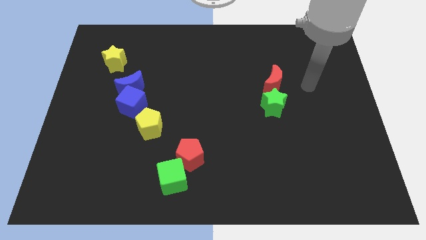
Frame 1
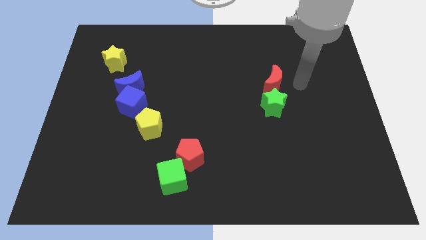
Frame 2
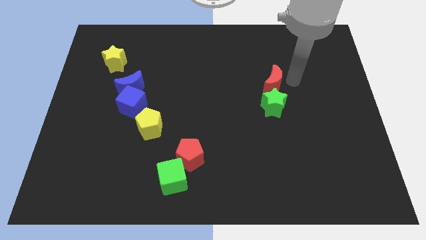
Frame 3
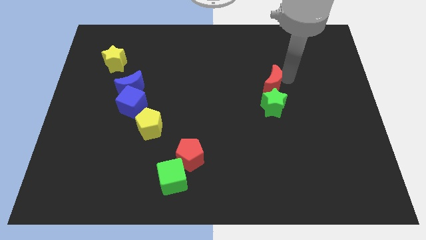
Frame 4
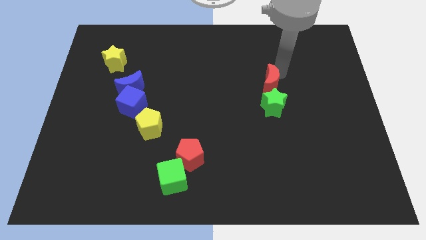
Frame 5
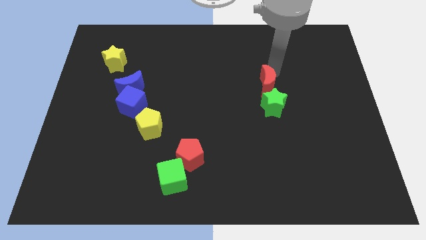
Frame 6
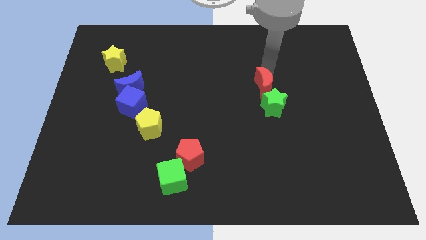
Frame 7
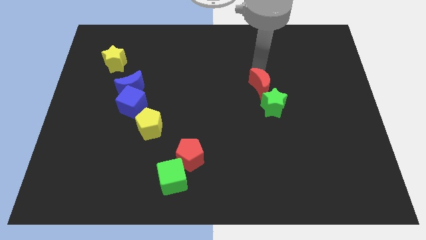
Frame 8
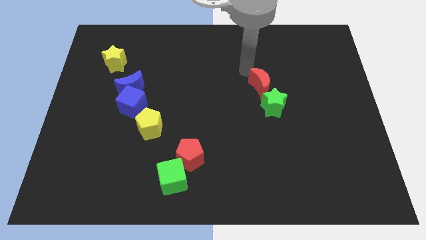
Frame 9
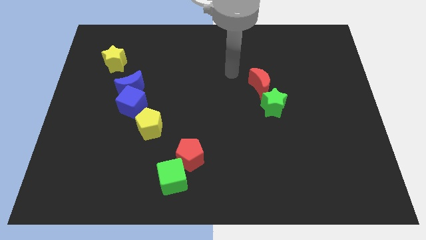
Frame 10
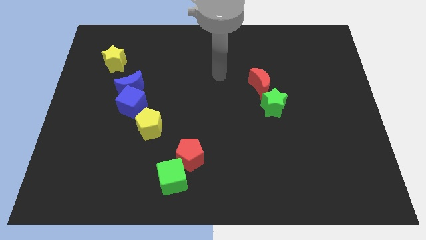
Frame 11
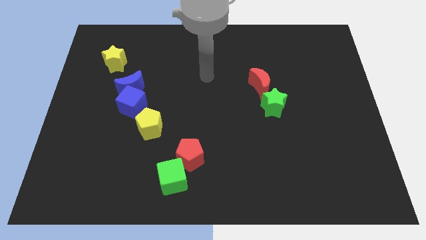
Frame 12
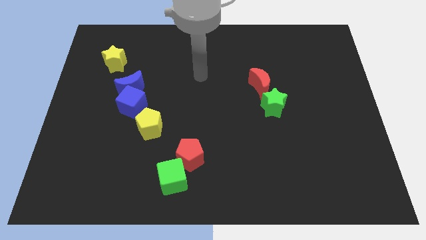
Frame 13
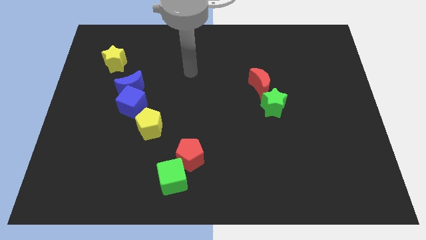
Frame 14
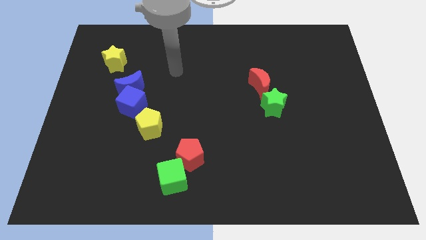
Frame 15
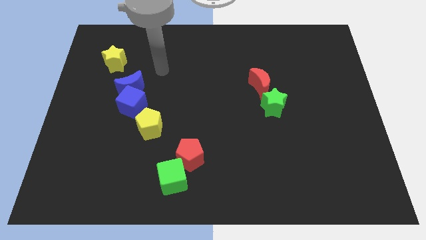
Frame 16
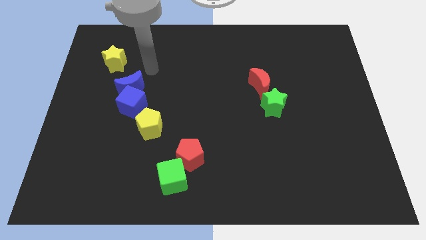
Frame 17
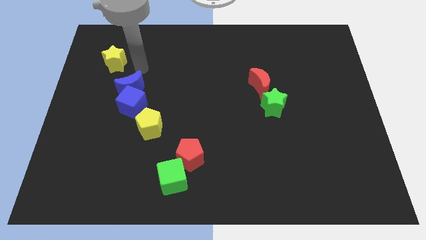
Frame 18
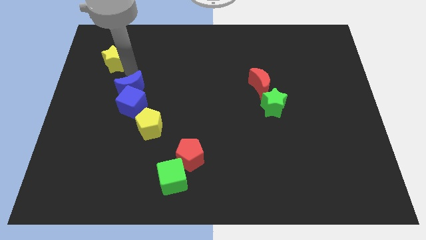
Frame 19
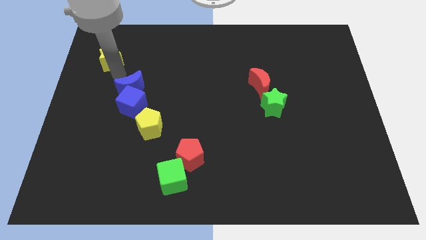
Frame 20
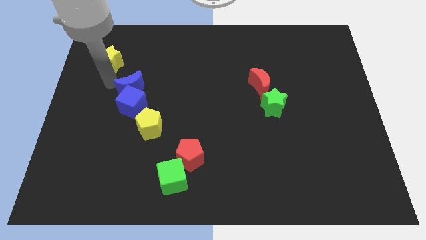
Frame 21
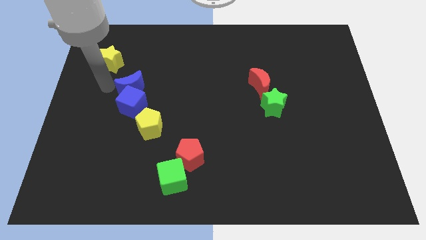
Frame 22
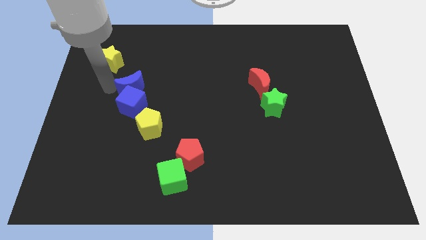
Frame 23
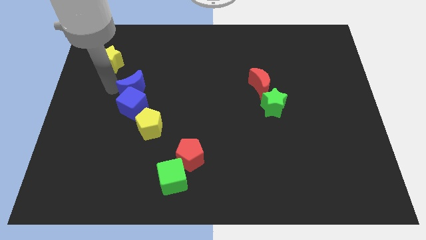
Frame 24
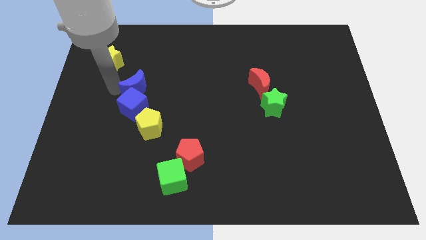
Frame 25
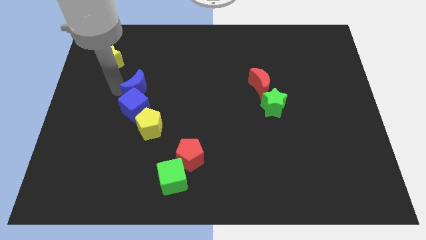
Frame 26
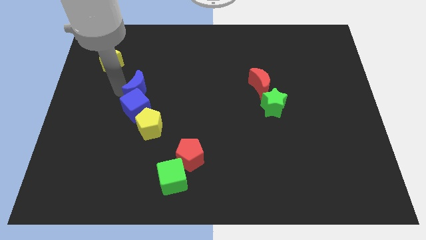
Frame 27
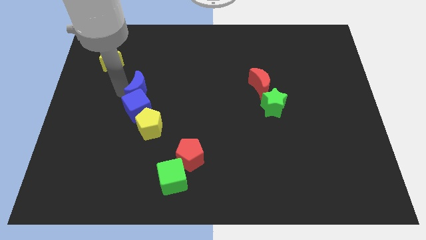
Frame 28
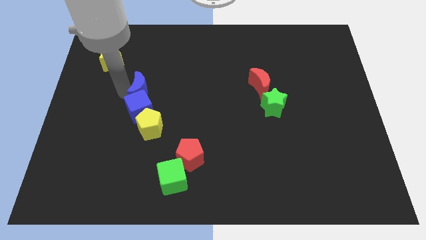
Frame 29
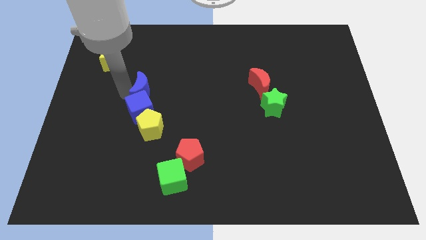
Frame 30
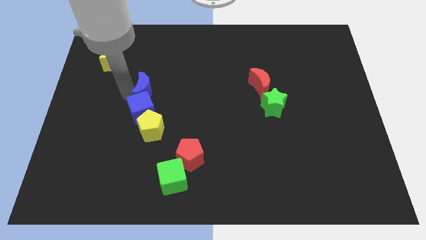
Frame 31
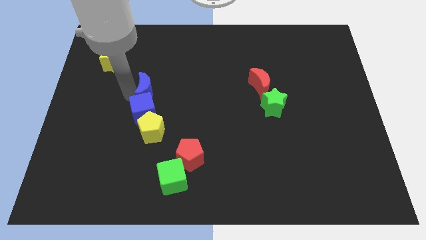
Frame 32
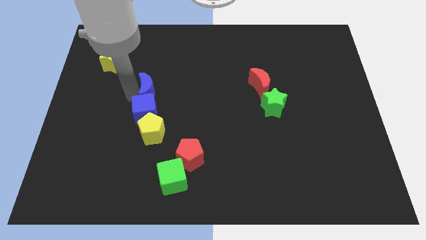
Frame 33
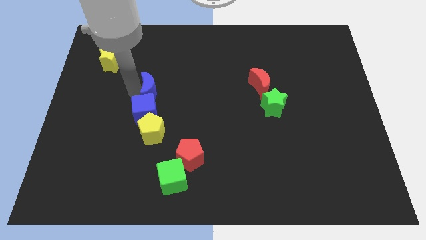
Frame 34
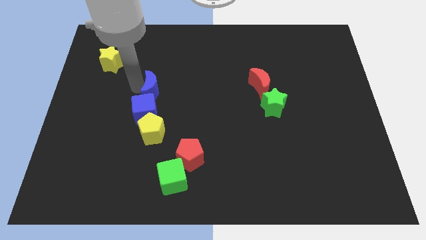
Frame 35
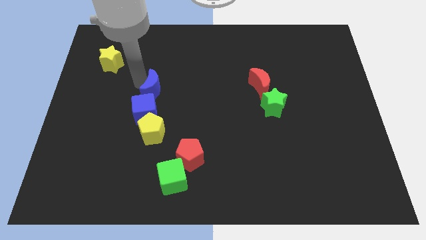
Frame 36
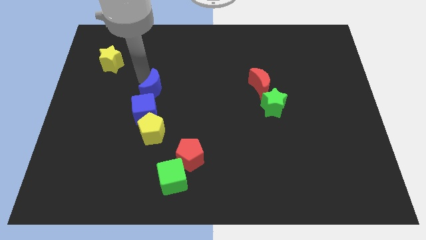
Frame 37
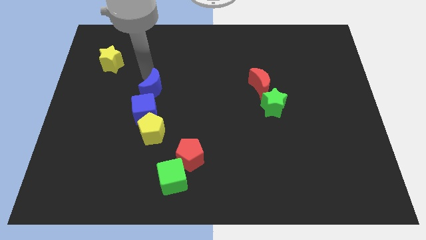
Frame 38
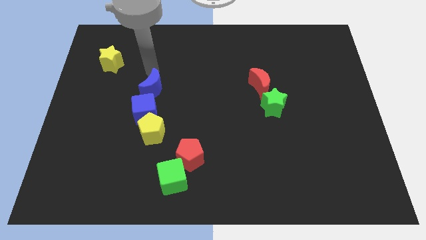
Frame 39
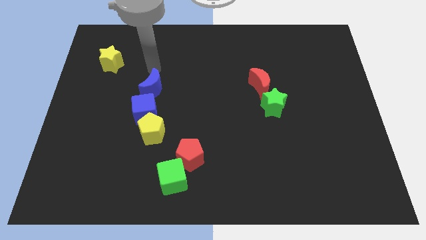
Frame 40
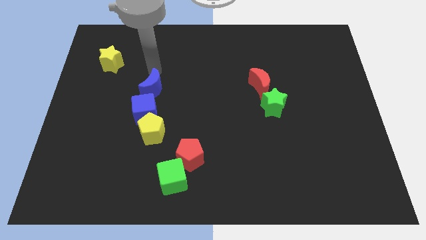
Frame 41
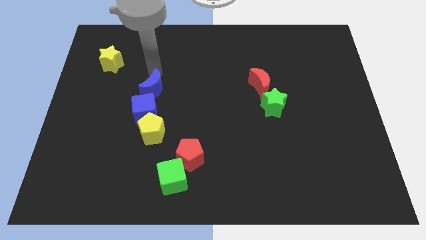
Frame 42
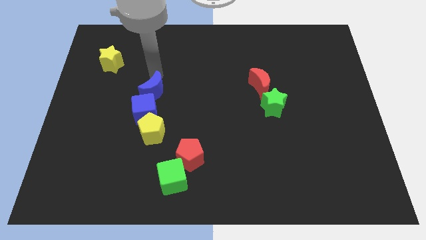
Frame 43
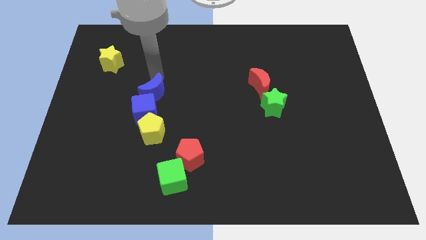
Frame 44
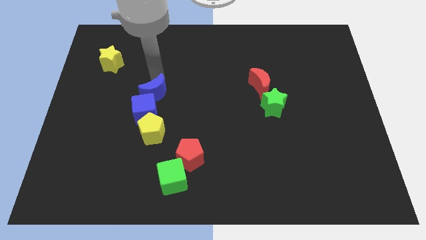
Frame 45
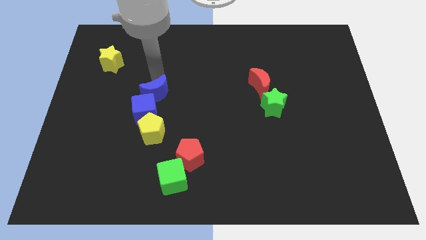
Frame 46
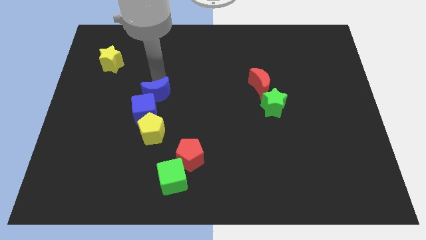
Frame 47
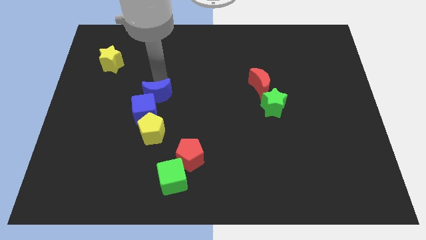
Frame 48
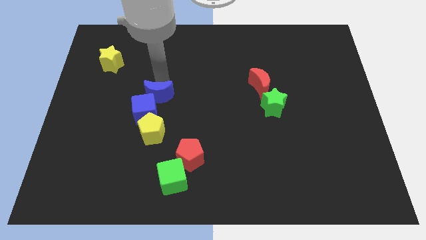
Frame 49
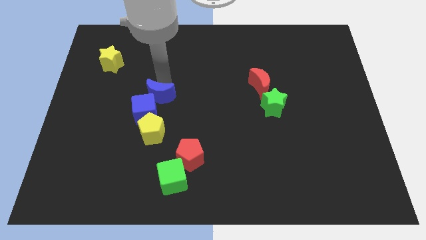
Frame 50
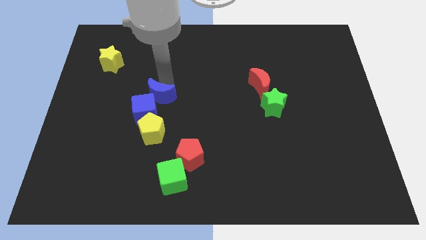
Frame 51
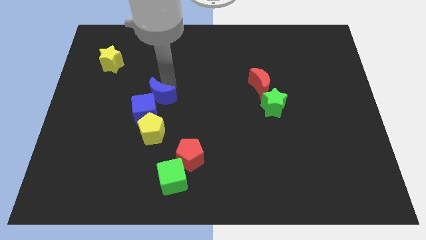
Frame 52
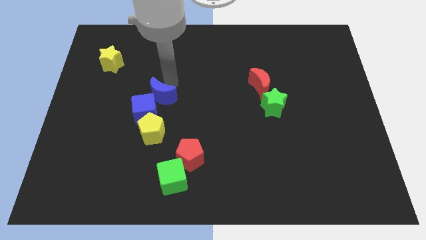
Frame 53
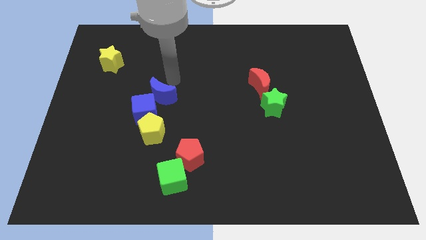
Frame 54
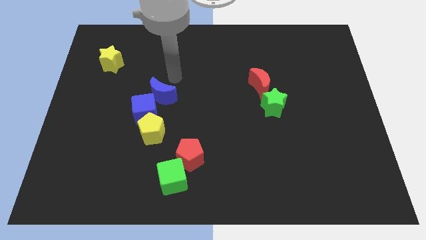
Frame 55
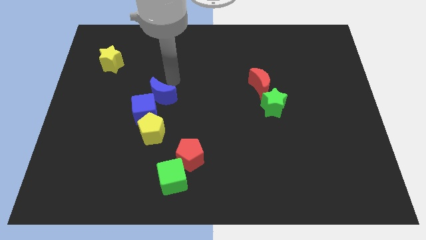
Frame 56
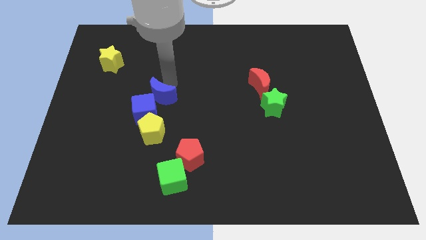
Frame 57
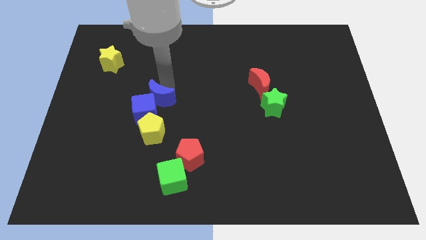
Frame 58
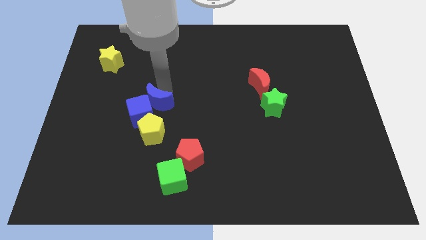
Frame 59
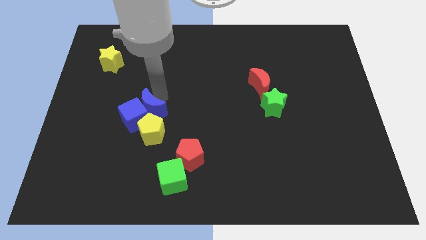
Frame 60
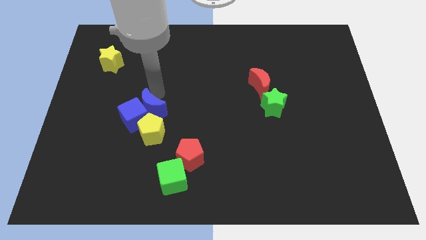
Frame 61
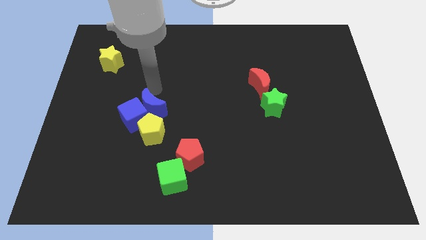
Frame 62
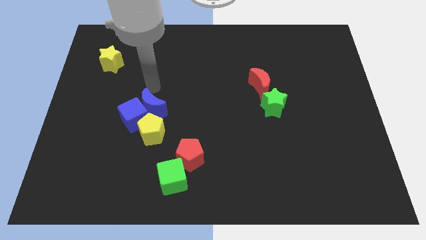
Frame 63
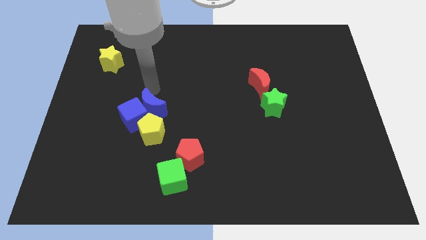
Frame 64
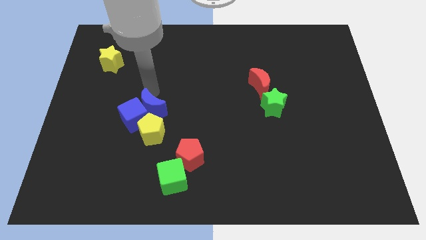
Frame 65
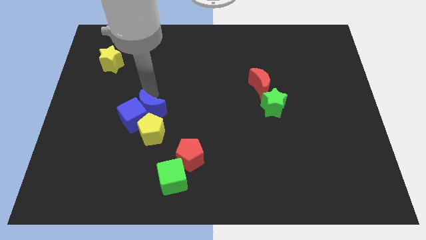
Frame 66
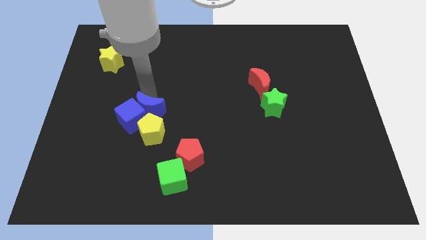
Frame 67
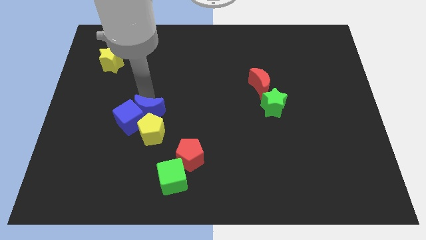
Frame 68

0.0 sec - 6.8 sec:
move the blue moon towards the yellow pentagon
